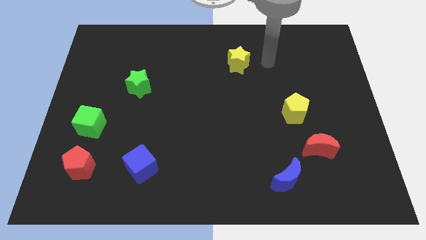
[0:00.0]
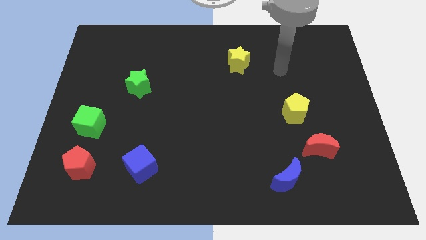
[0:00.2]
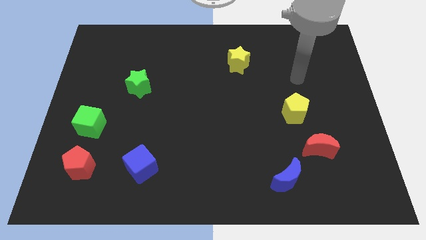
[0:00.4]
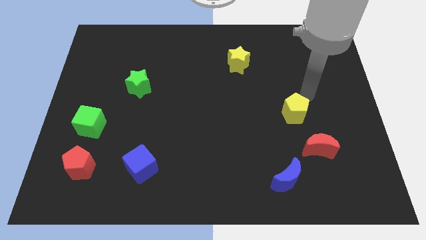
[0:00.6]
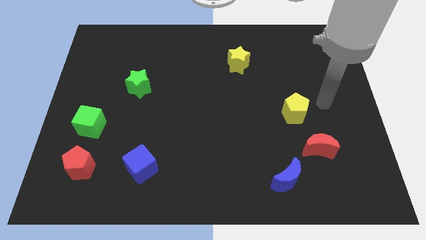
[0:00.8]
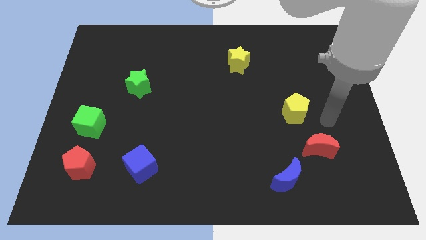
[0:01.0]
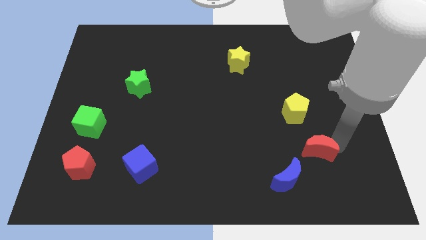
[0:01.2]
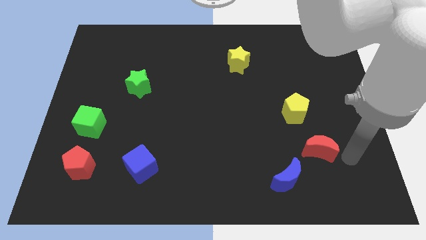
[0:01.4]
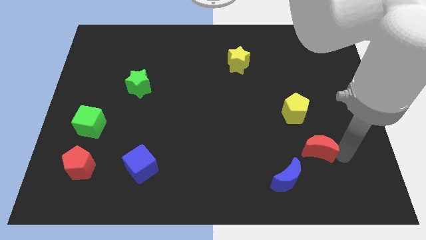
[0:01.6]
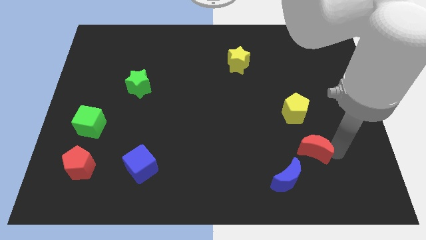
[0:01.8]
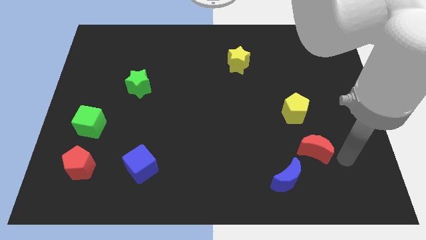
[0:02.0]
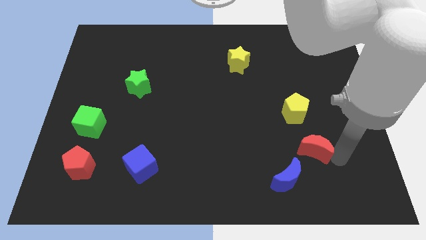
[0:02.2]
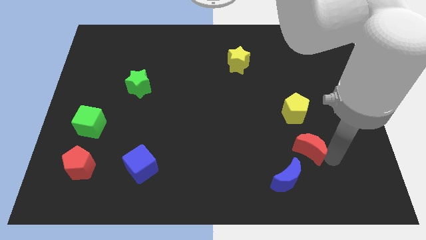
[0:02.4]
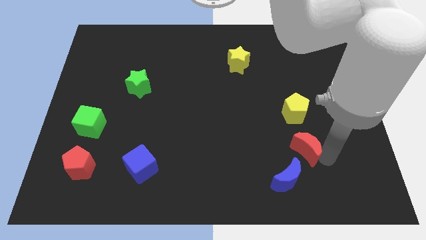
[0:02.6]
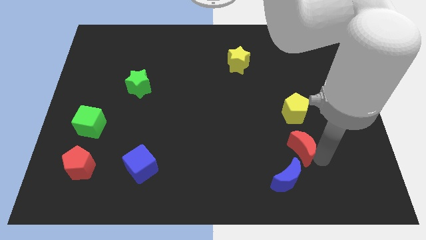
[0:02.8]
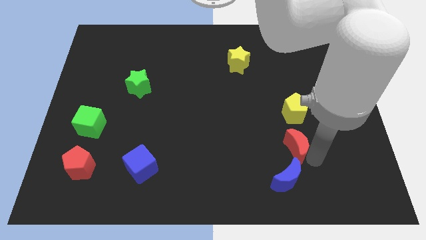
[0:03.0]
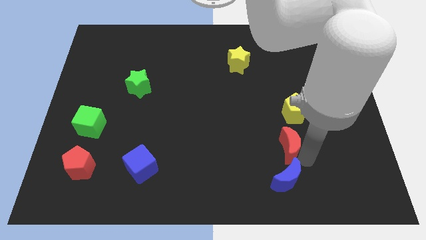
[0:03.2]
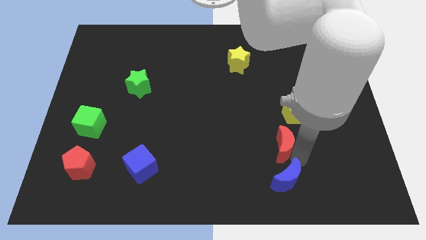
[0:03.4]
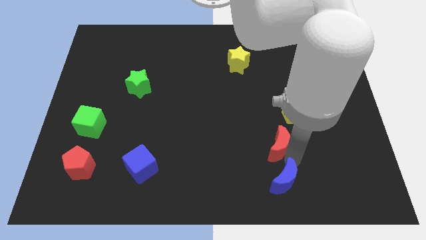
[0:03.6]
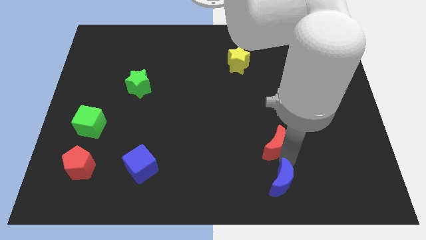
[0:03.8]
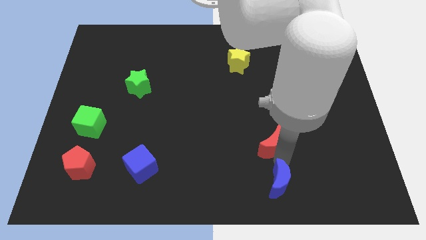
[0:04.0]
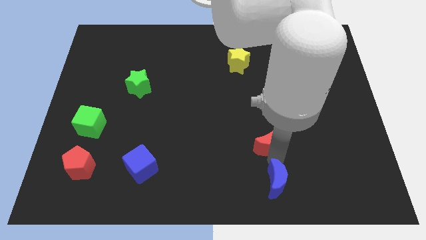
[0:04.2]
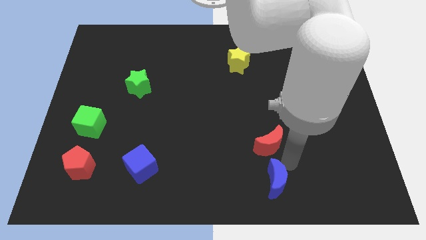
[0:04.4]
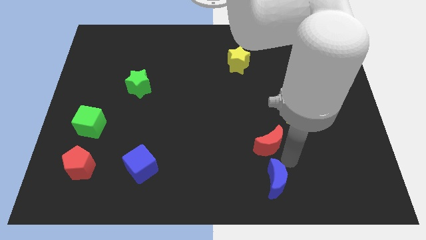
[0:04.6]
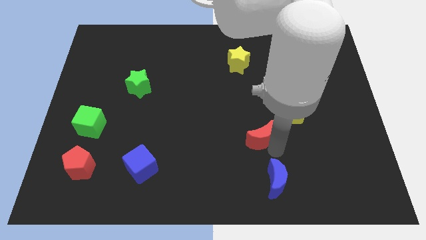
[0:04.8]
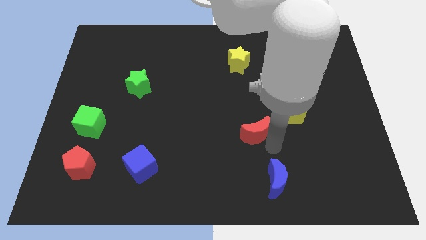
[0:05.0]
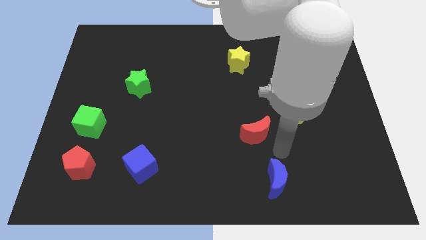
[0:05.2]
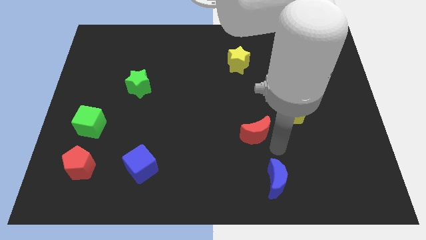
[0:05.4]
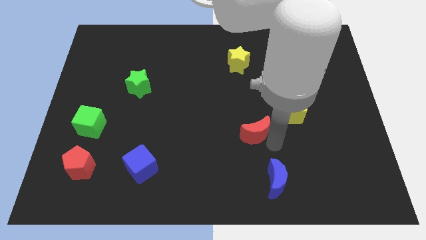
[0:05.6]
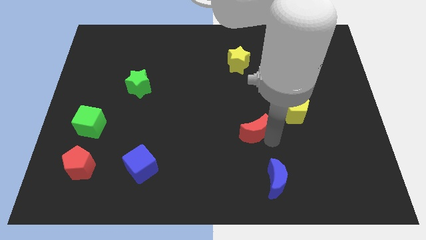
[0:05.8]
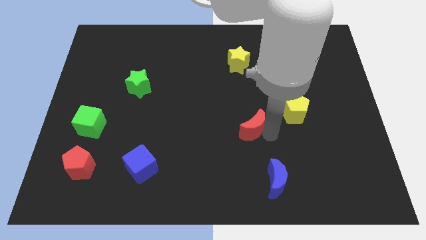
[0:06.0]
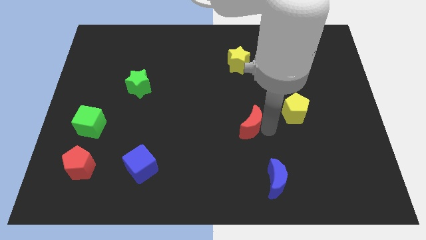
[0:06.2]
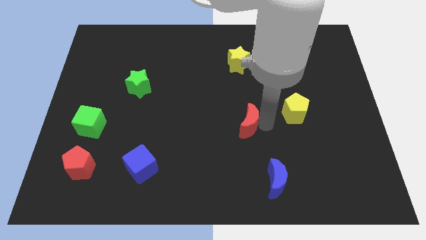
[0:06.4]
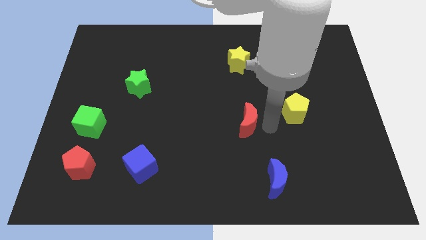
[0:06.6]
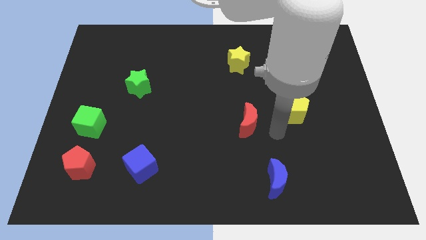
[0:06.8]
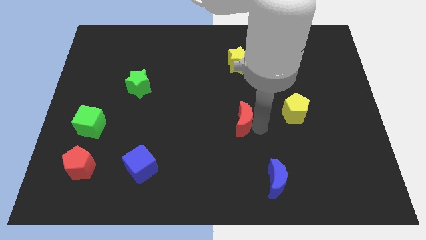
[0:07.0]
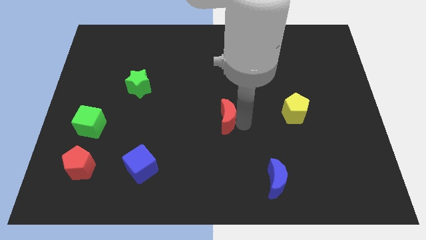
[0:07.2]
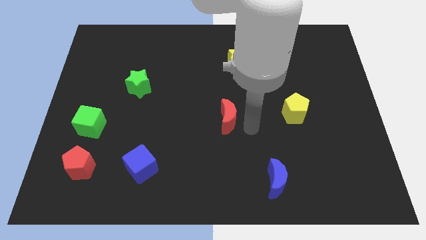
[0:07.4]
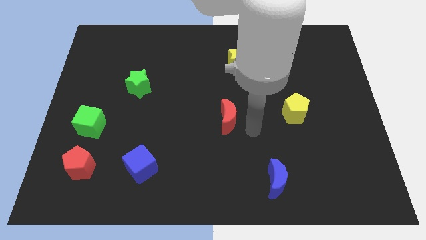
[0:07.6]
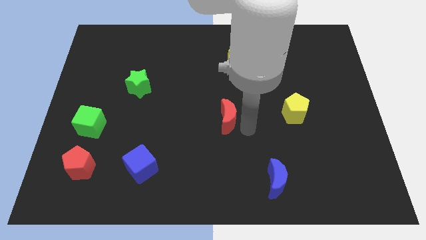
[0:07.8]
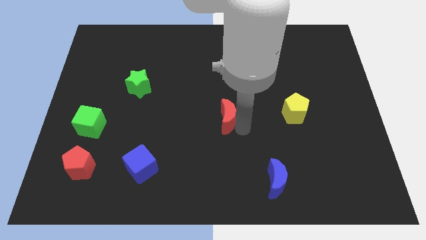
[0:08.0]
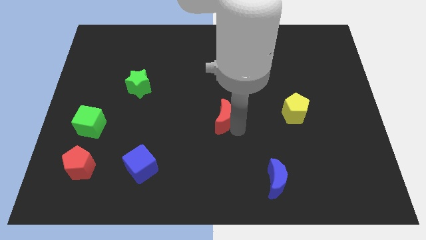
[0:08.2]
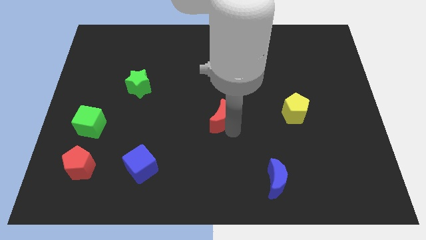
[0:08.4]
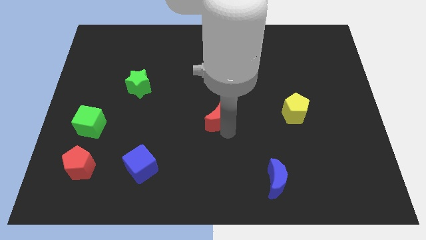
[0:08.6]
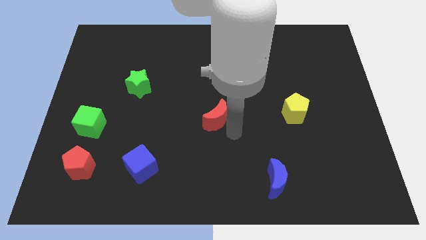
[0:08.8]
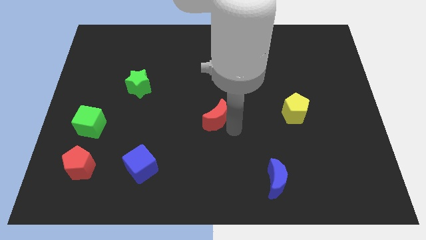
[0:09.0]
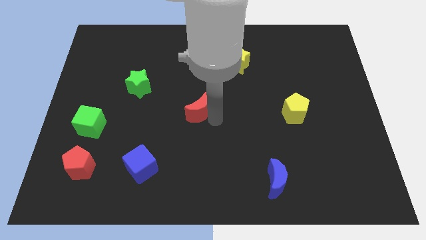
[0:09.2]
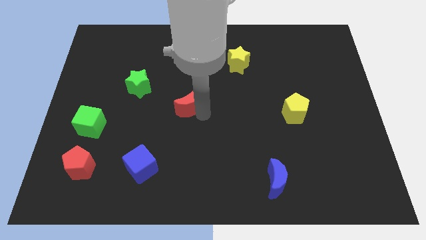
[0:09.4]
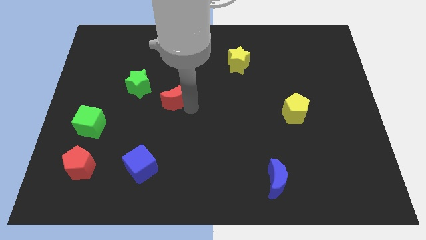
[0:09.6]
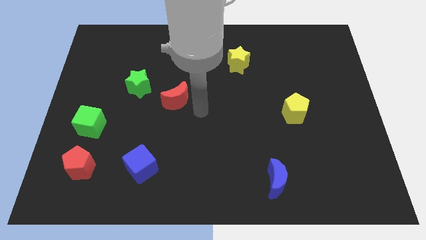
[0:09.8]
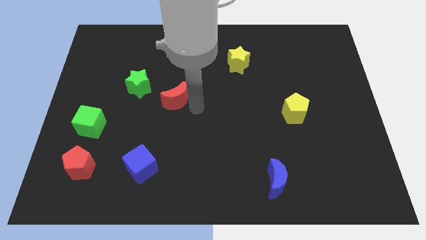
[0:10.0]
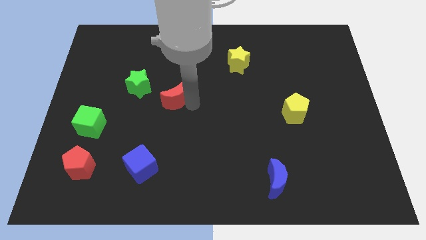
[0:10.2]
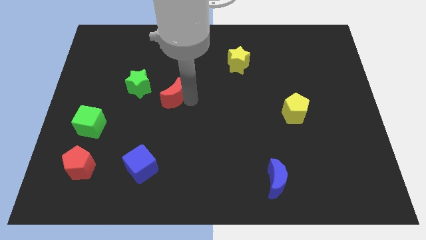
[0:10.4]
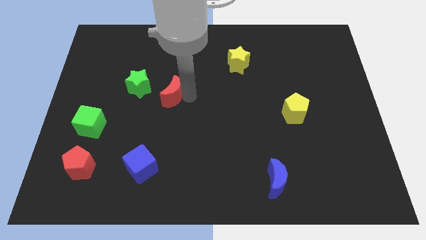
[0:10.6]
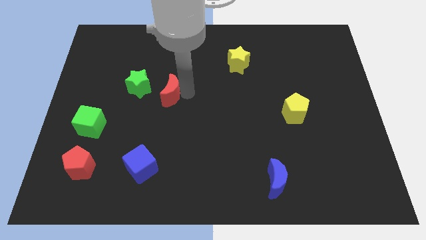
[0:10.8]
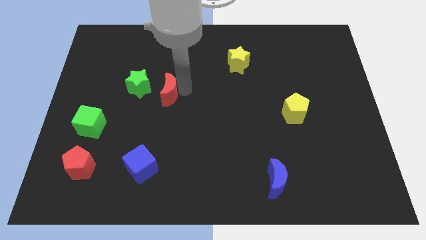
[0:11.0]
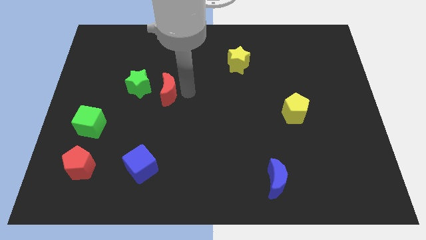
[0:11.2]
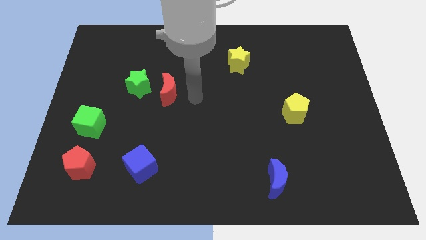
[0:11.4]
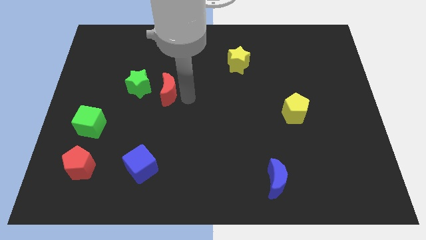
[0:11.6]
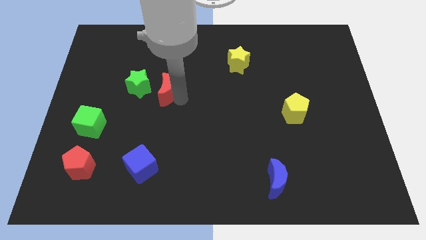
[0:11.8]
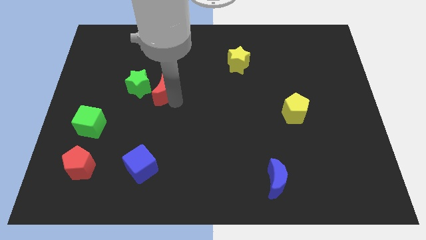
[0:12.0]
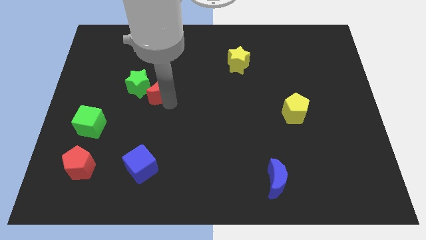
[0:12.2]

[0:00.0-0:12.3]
put the red moon close to the green star

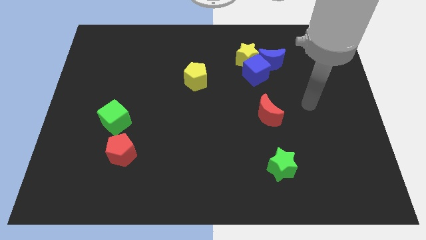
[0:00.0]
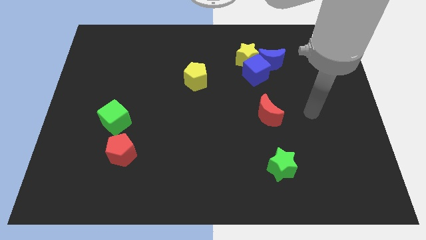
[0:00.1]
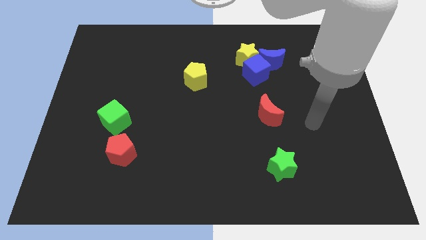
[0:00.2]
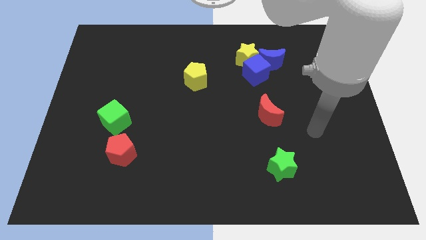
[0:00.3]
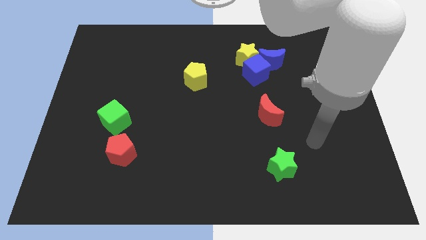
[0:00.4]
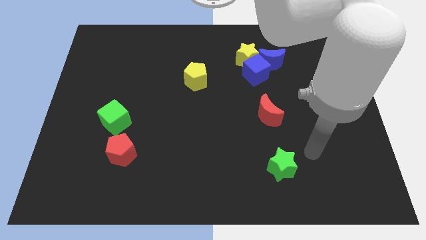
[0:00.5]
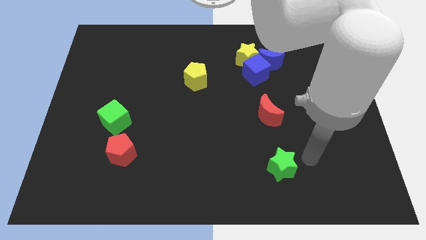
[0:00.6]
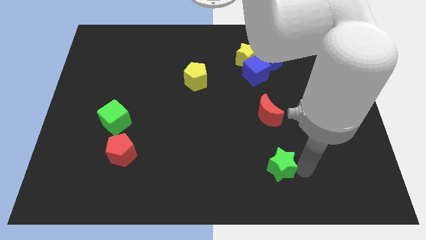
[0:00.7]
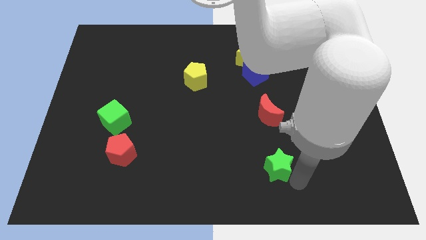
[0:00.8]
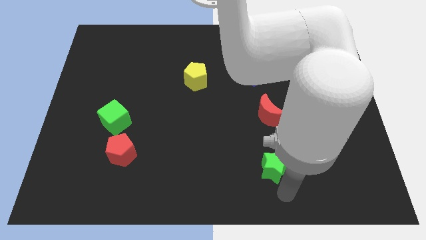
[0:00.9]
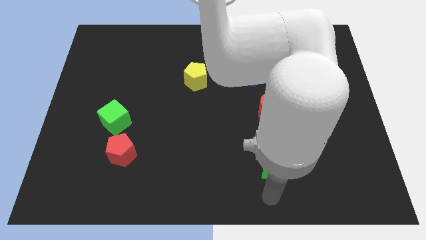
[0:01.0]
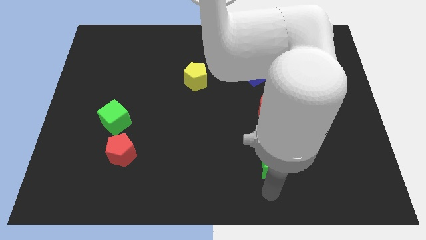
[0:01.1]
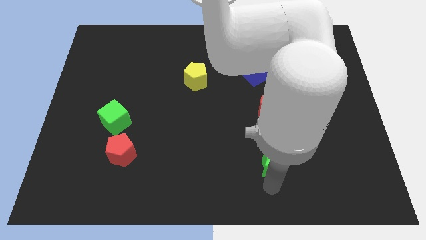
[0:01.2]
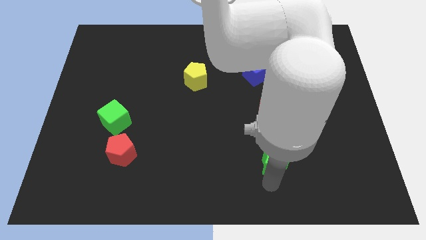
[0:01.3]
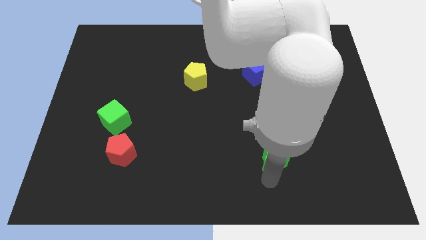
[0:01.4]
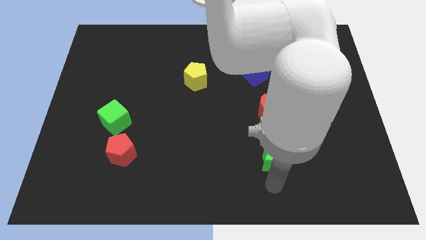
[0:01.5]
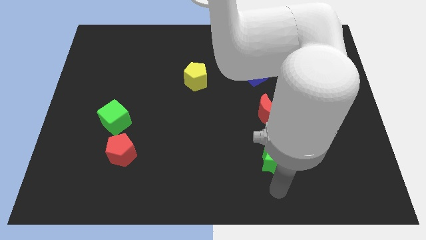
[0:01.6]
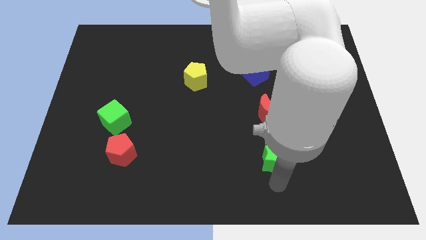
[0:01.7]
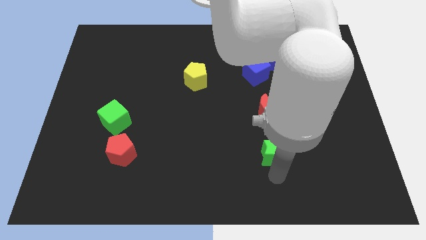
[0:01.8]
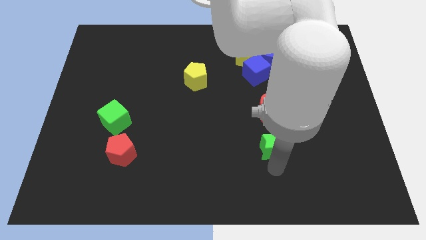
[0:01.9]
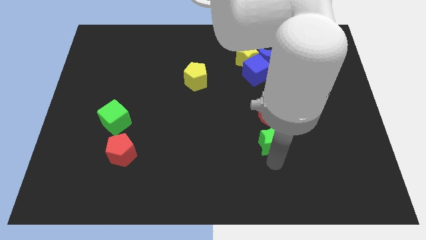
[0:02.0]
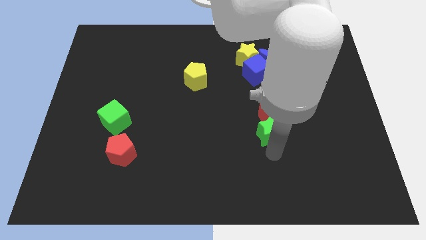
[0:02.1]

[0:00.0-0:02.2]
move the green star next to the red moon
